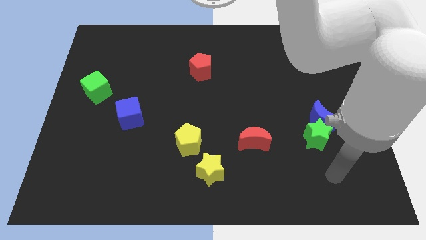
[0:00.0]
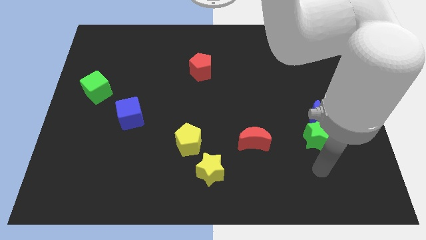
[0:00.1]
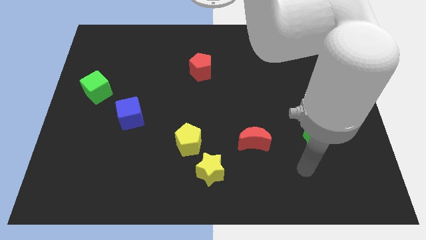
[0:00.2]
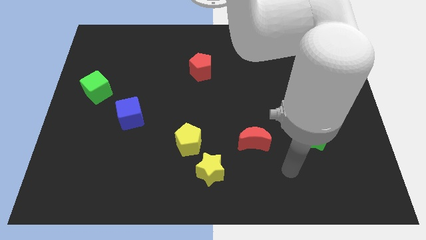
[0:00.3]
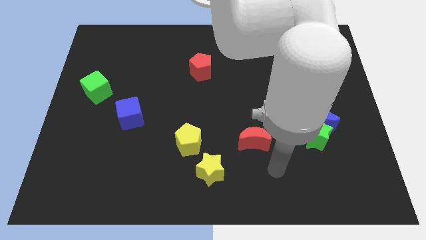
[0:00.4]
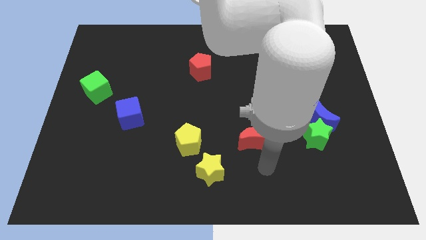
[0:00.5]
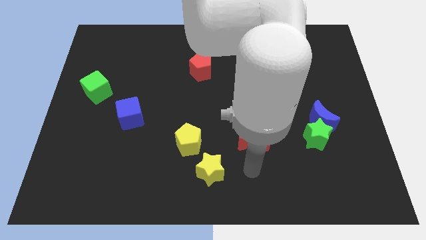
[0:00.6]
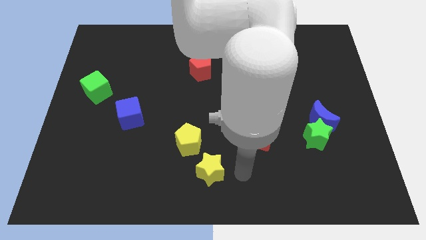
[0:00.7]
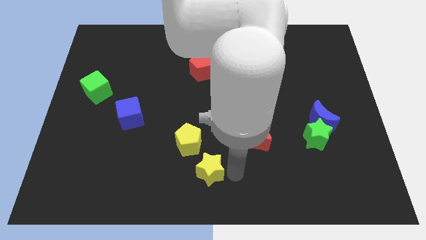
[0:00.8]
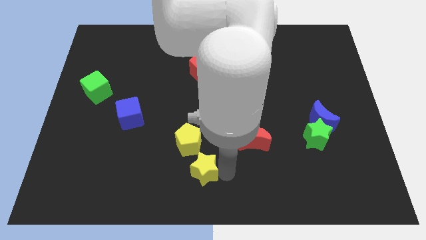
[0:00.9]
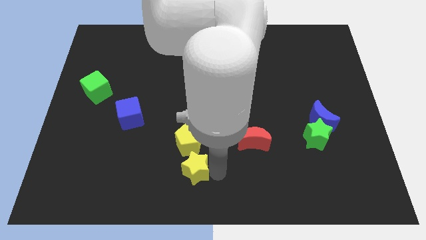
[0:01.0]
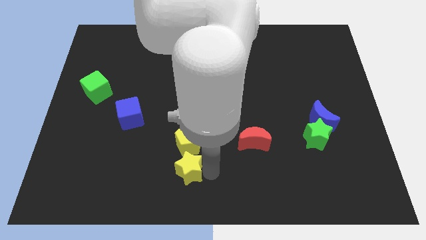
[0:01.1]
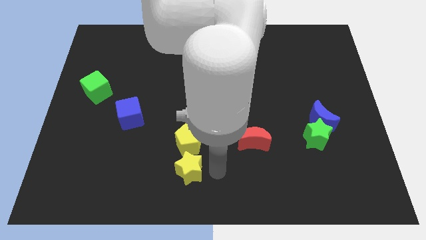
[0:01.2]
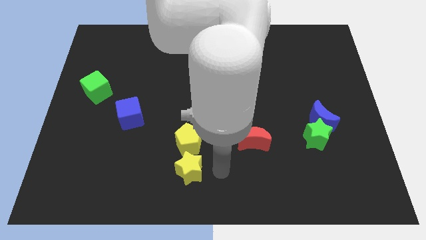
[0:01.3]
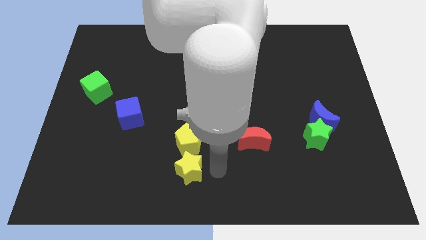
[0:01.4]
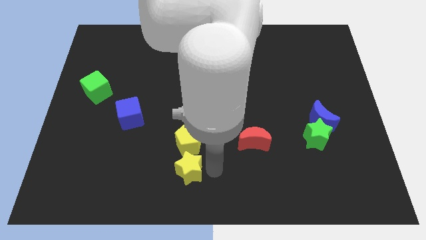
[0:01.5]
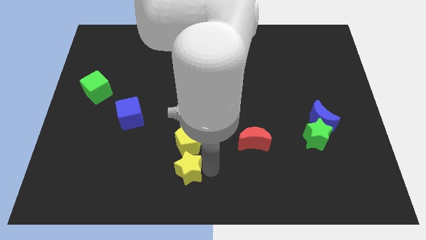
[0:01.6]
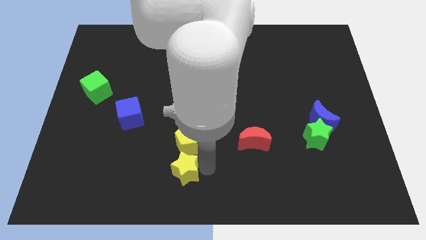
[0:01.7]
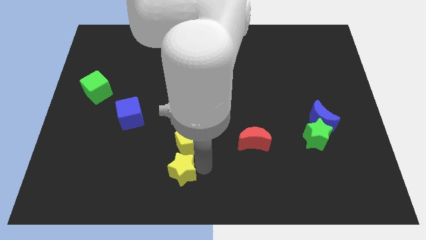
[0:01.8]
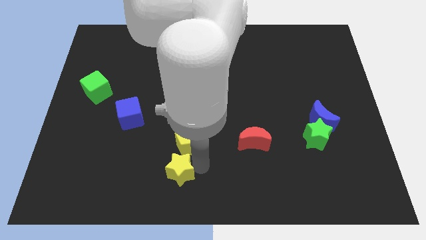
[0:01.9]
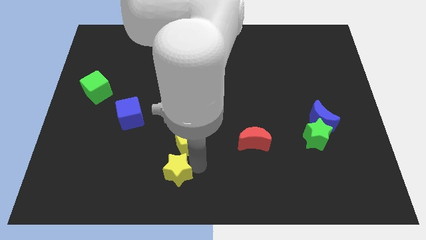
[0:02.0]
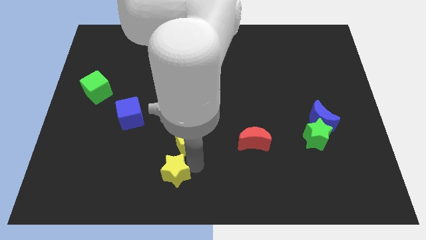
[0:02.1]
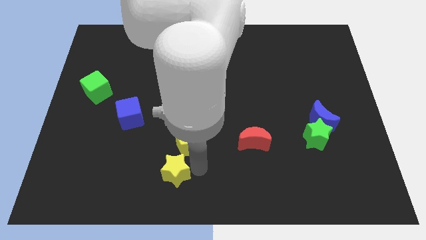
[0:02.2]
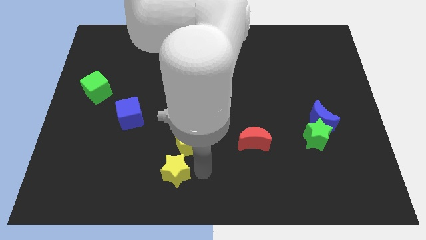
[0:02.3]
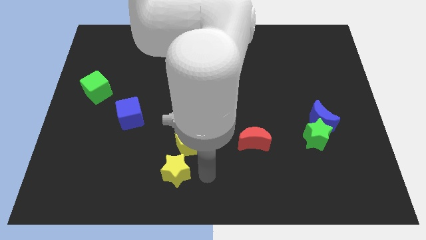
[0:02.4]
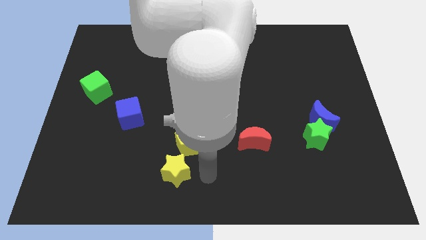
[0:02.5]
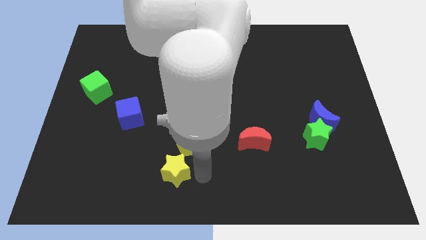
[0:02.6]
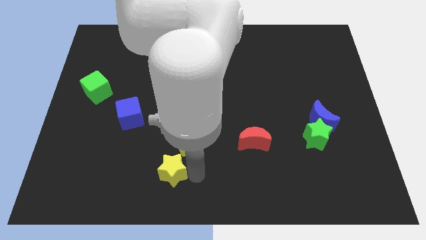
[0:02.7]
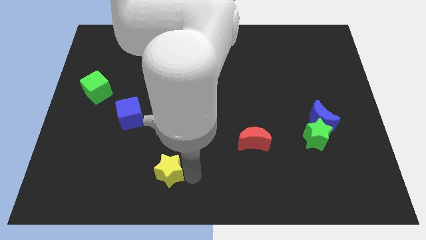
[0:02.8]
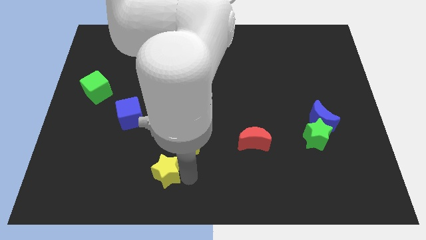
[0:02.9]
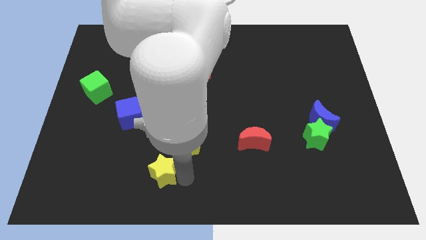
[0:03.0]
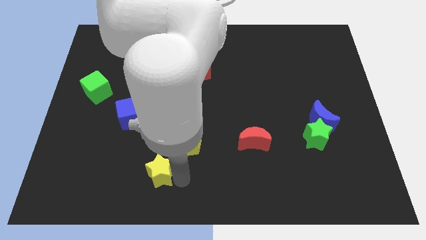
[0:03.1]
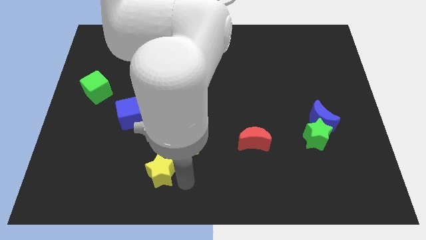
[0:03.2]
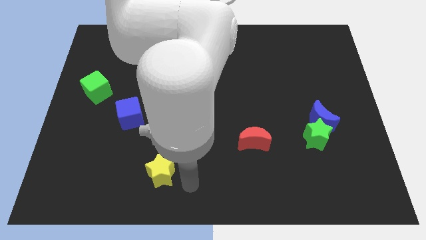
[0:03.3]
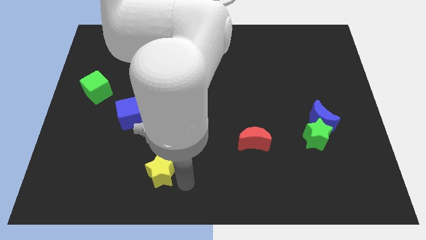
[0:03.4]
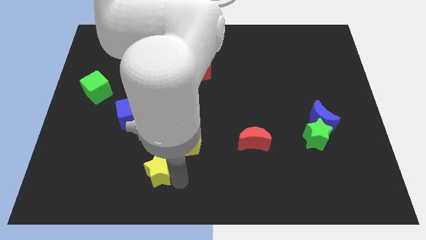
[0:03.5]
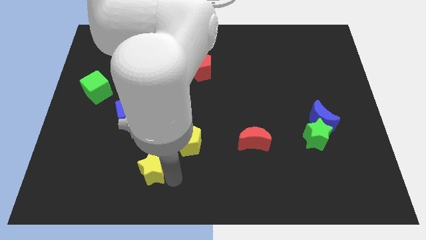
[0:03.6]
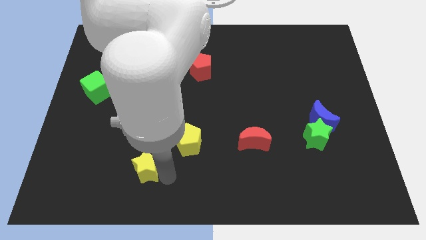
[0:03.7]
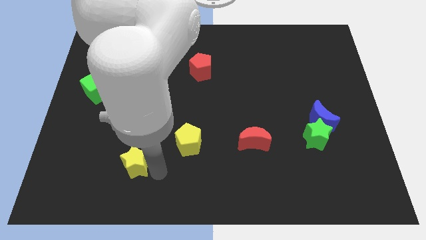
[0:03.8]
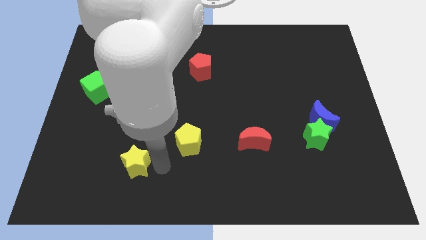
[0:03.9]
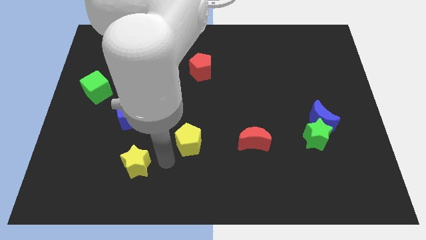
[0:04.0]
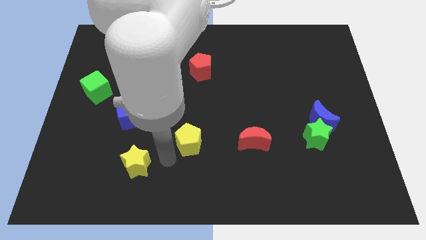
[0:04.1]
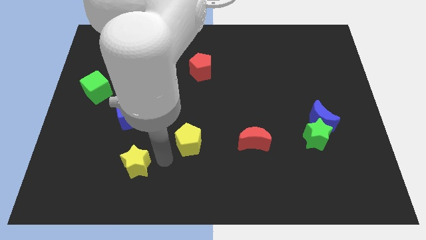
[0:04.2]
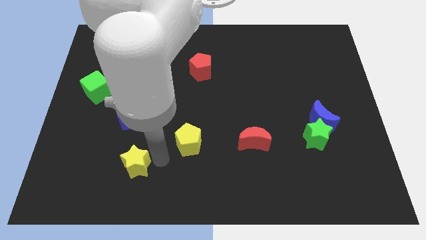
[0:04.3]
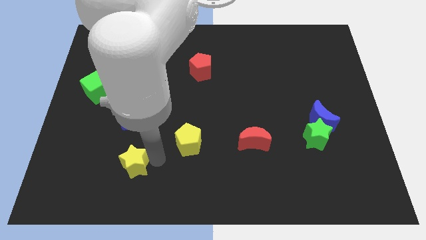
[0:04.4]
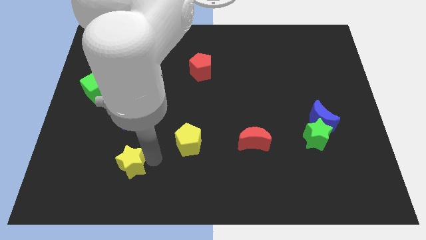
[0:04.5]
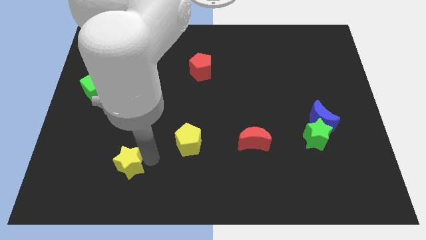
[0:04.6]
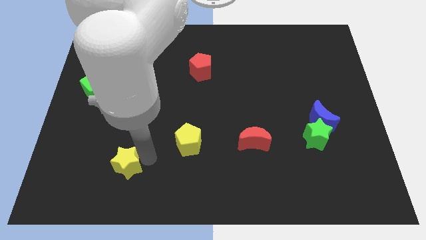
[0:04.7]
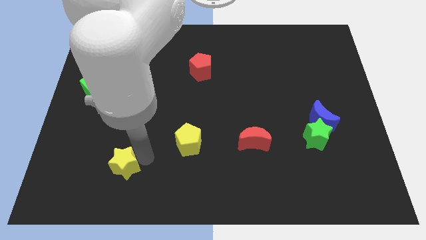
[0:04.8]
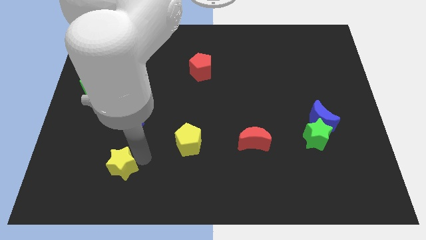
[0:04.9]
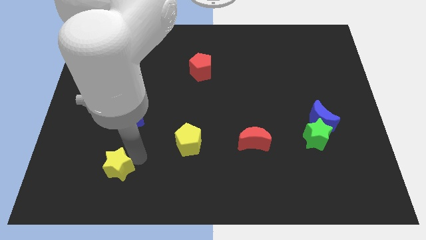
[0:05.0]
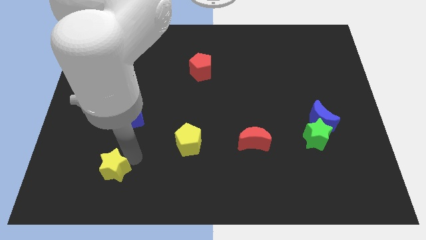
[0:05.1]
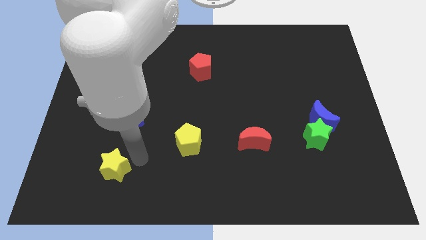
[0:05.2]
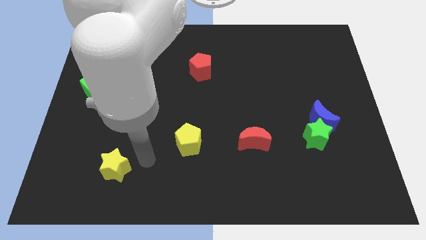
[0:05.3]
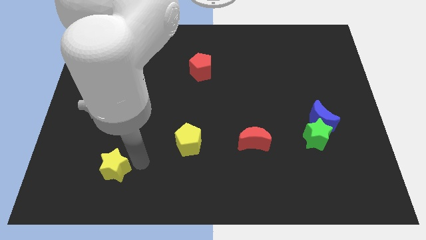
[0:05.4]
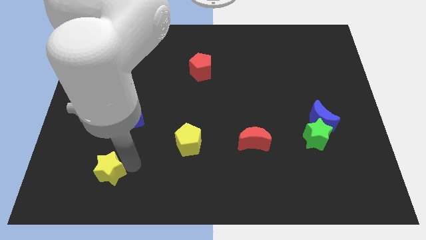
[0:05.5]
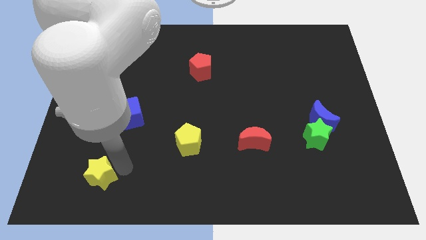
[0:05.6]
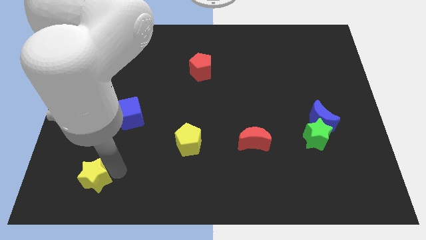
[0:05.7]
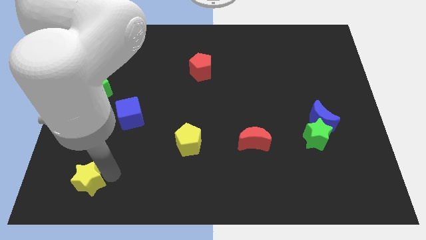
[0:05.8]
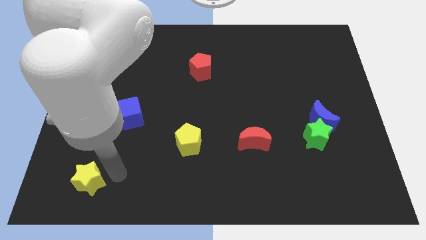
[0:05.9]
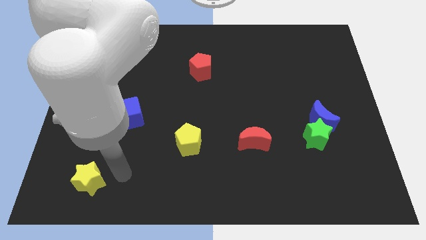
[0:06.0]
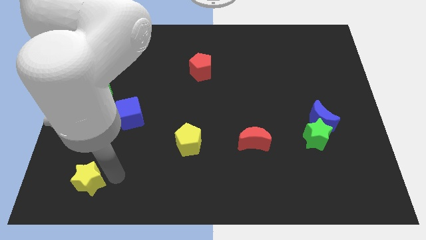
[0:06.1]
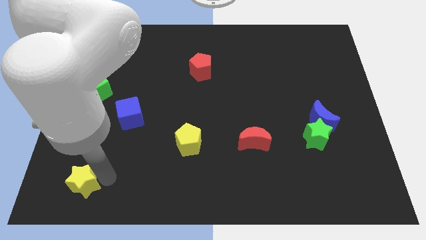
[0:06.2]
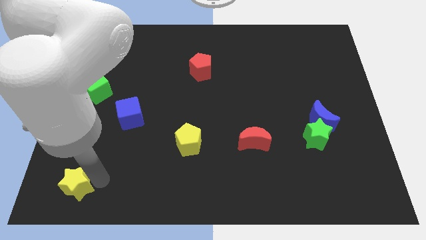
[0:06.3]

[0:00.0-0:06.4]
move the yellow star to the bottom left of the board

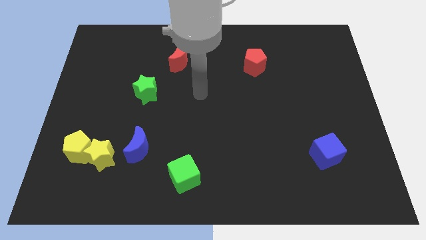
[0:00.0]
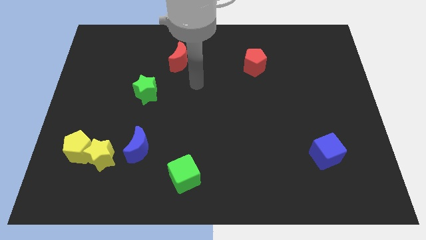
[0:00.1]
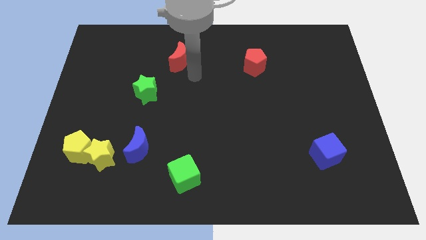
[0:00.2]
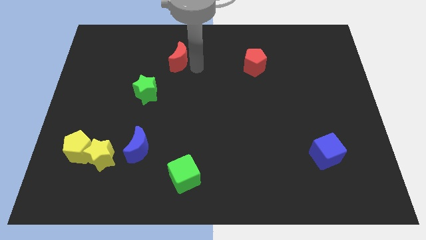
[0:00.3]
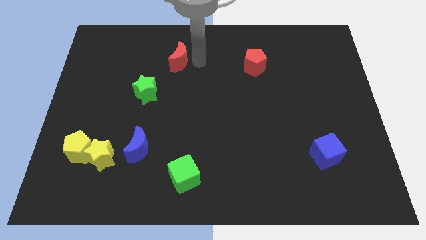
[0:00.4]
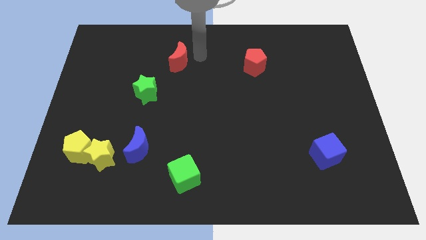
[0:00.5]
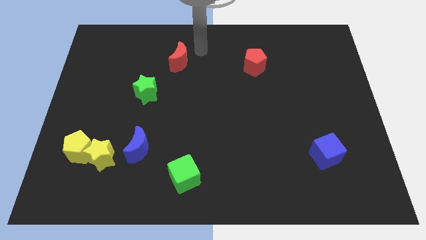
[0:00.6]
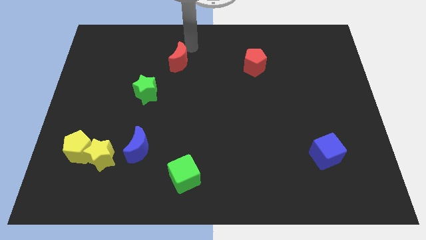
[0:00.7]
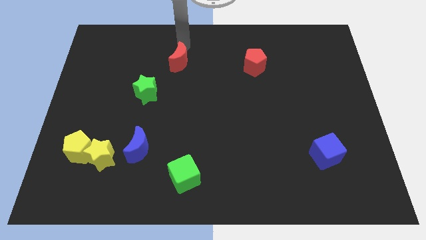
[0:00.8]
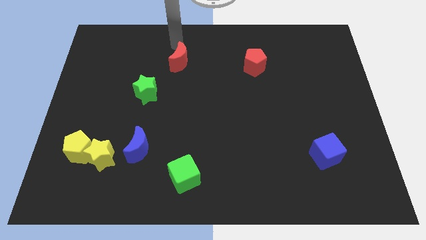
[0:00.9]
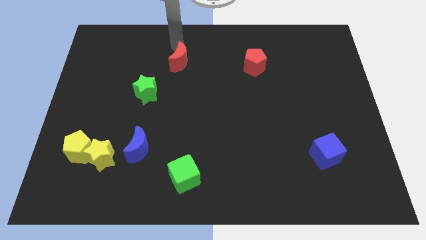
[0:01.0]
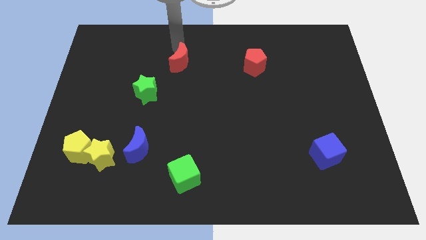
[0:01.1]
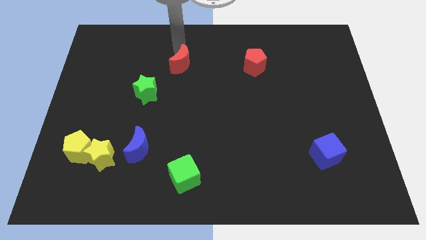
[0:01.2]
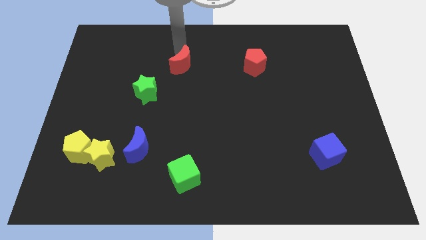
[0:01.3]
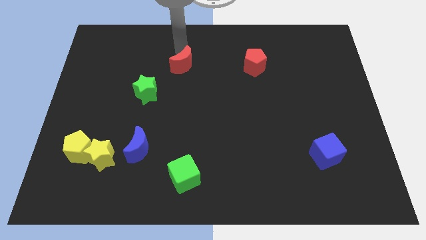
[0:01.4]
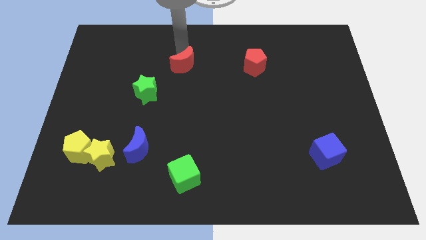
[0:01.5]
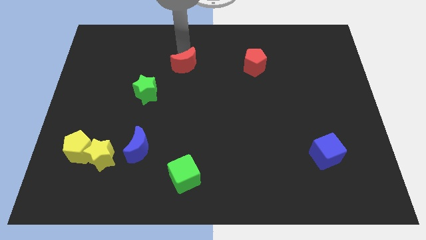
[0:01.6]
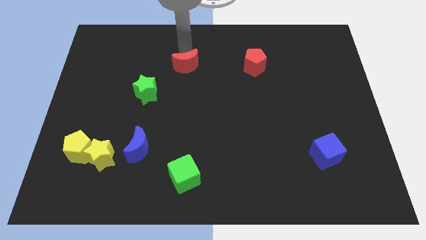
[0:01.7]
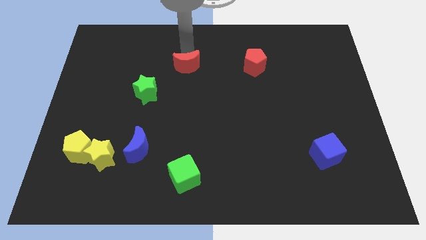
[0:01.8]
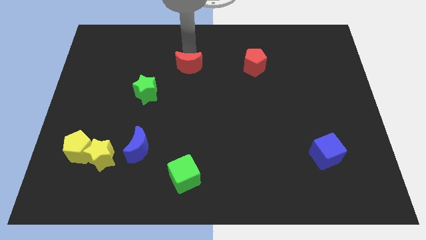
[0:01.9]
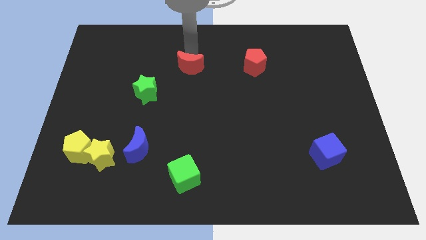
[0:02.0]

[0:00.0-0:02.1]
push the red moon to the middle of the board
